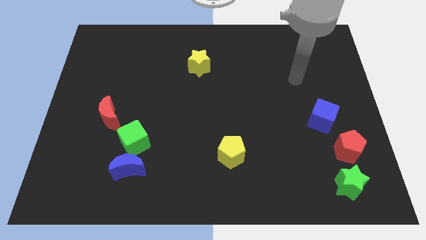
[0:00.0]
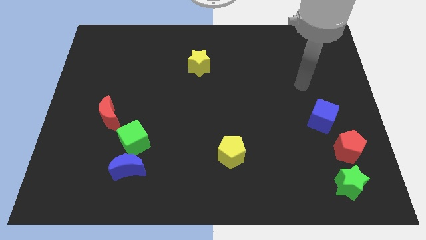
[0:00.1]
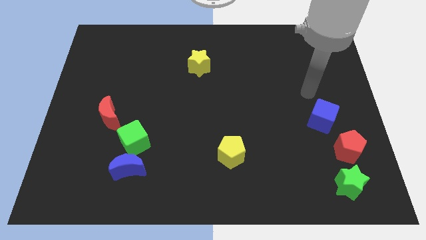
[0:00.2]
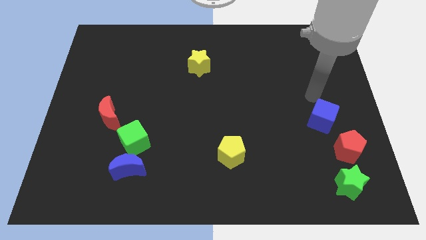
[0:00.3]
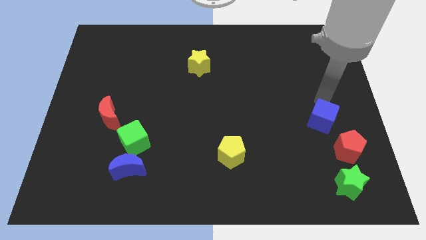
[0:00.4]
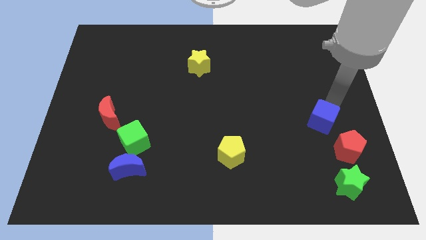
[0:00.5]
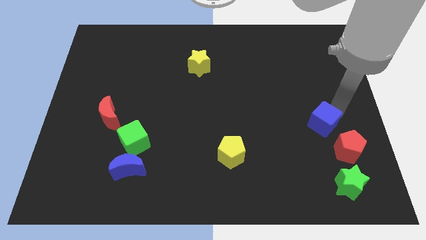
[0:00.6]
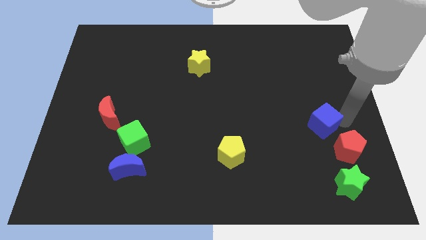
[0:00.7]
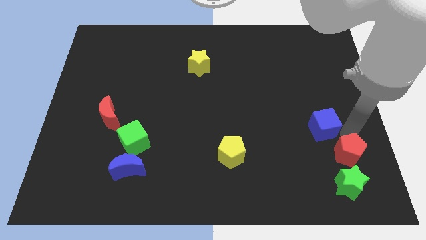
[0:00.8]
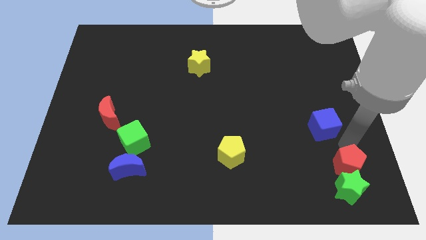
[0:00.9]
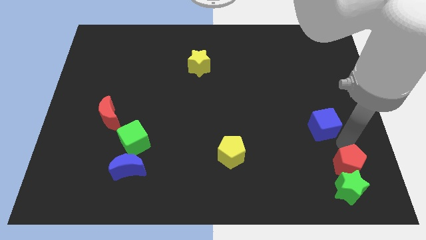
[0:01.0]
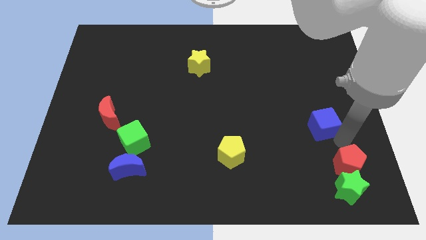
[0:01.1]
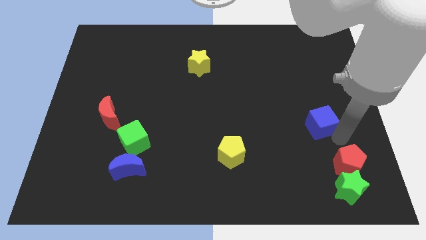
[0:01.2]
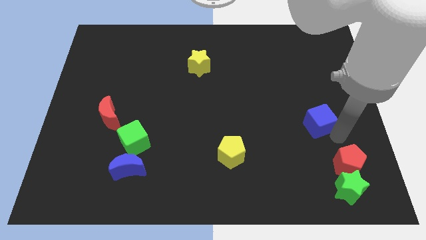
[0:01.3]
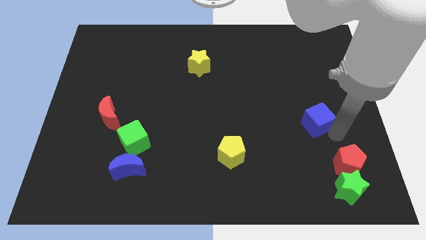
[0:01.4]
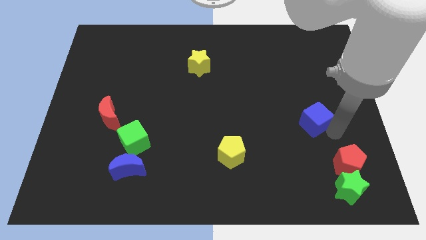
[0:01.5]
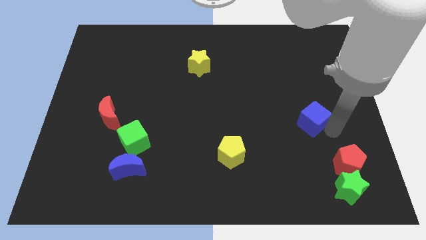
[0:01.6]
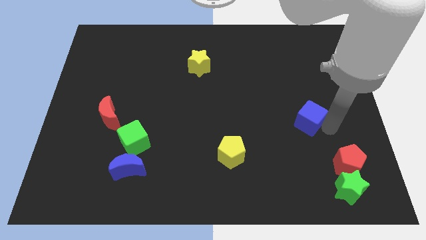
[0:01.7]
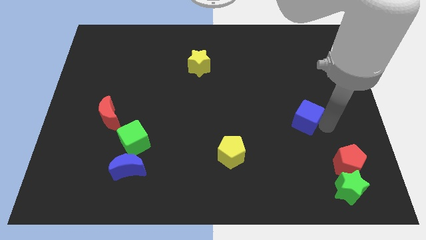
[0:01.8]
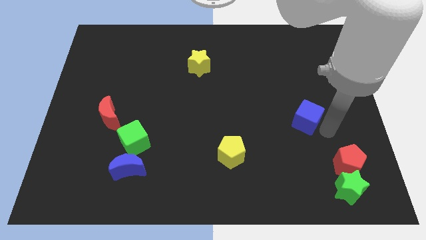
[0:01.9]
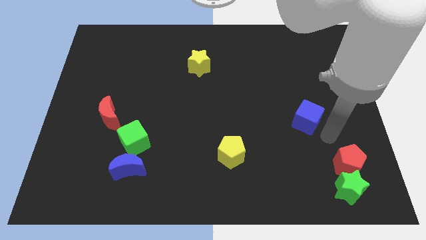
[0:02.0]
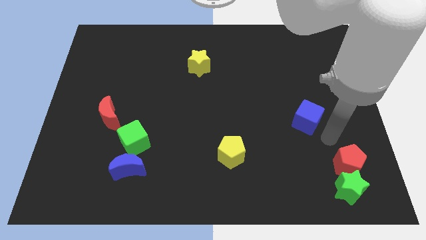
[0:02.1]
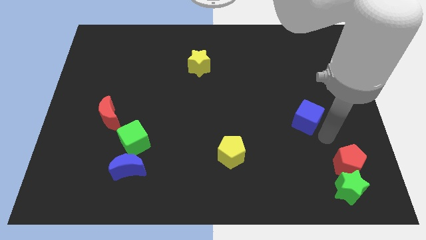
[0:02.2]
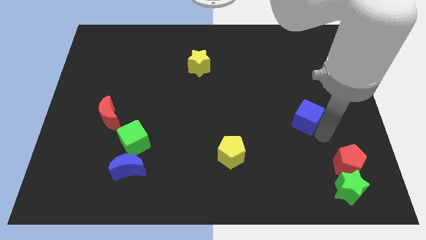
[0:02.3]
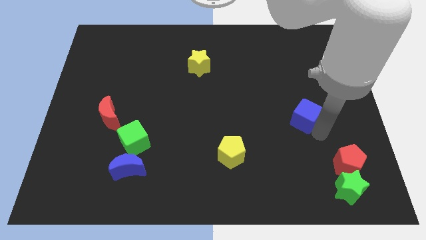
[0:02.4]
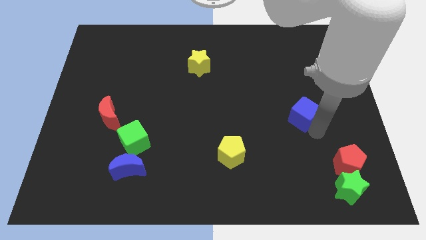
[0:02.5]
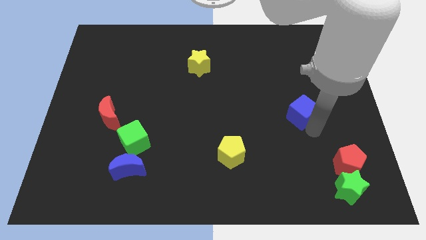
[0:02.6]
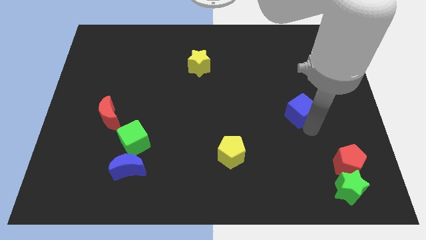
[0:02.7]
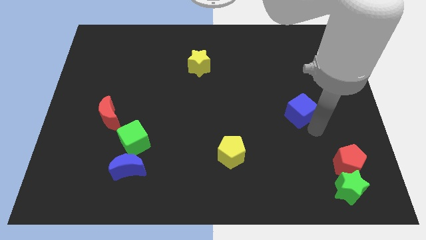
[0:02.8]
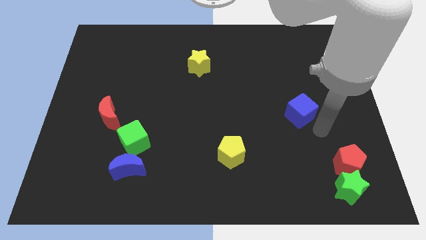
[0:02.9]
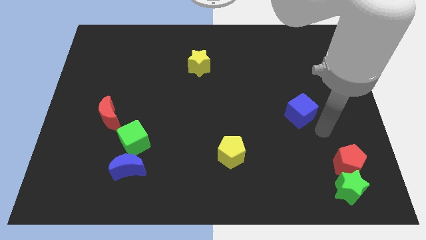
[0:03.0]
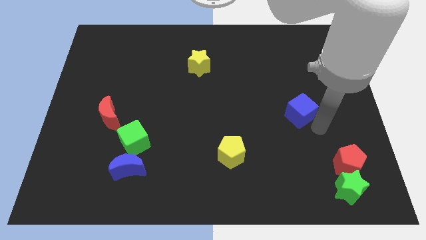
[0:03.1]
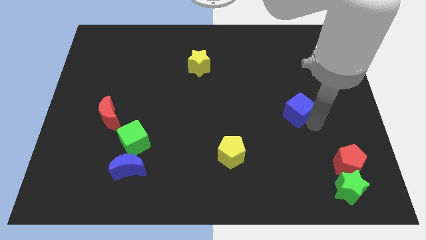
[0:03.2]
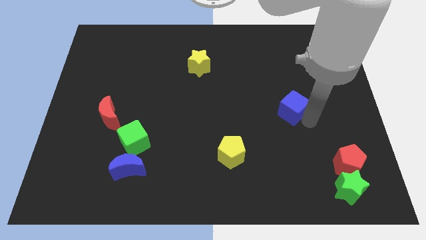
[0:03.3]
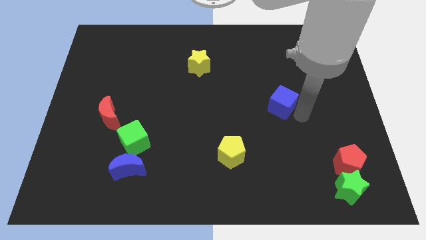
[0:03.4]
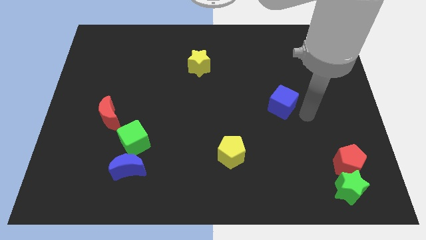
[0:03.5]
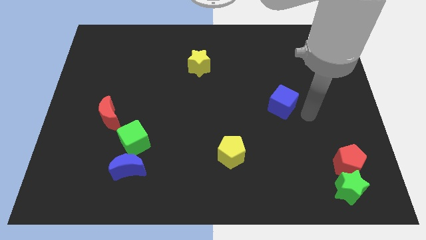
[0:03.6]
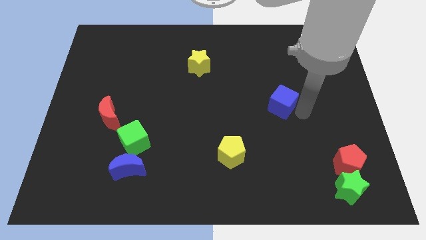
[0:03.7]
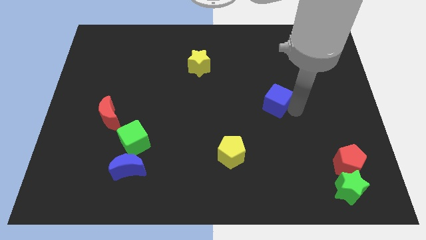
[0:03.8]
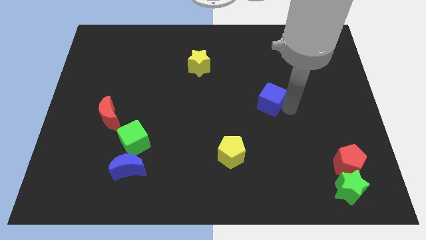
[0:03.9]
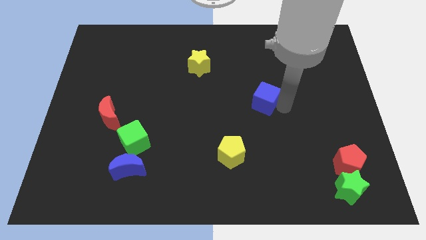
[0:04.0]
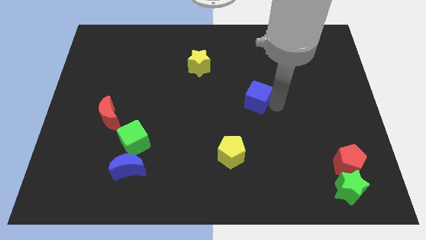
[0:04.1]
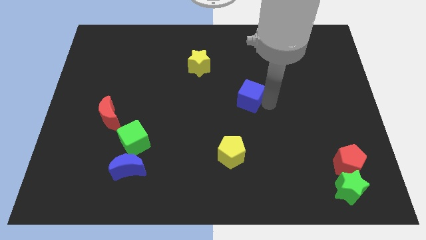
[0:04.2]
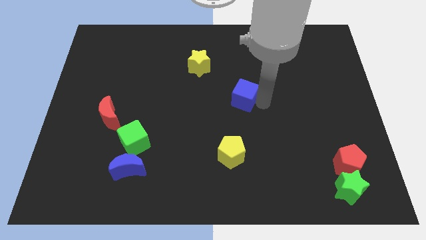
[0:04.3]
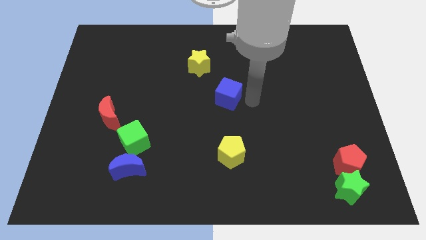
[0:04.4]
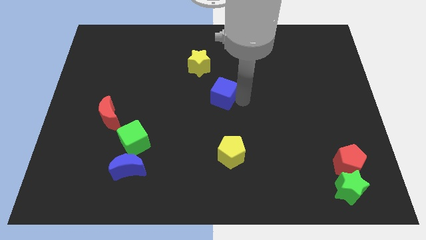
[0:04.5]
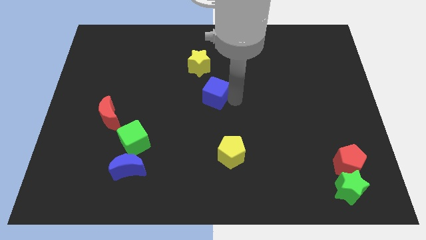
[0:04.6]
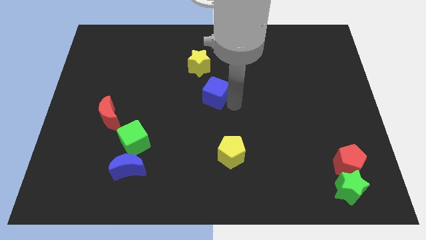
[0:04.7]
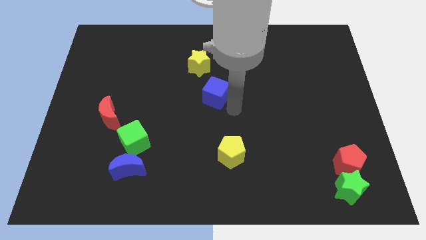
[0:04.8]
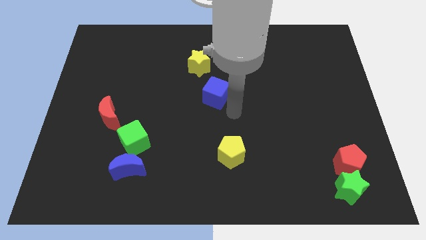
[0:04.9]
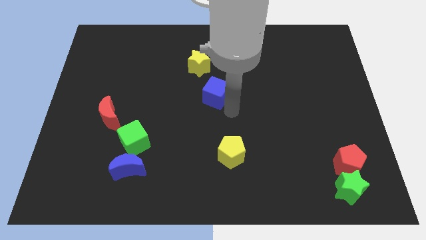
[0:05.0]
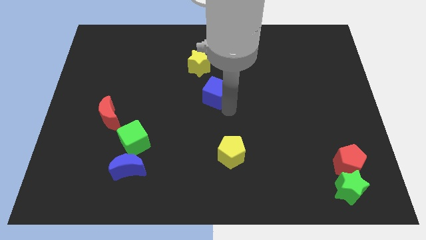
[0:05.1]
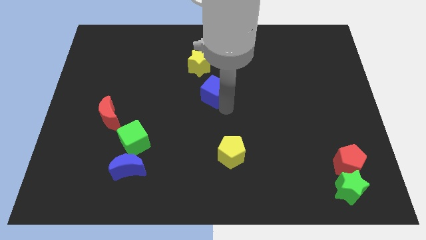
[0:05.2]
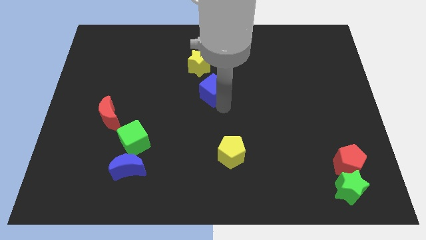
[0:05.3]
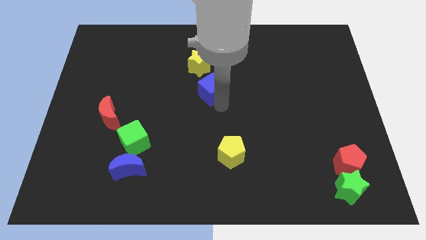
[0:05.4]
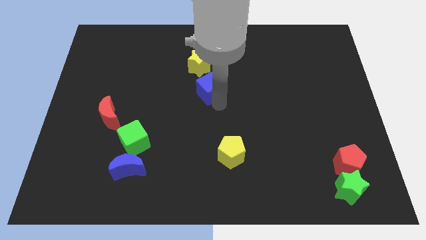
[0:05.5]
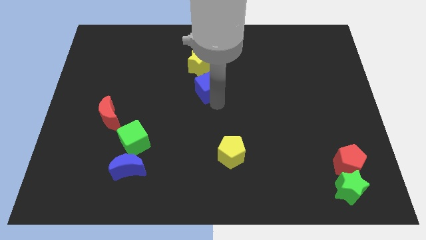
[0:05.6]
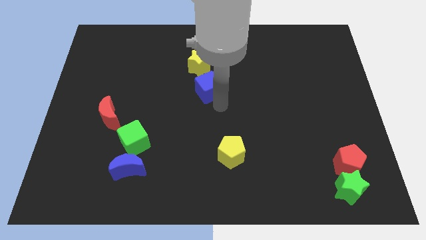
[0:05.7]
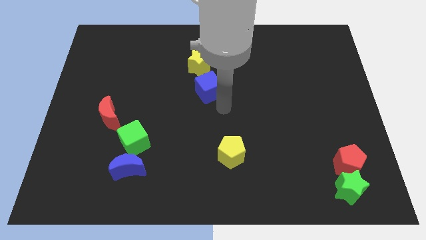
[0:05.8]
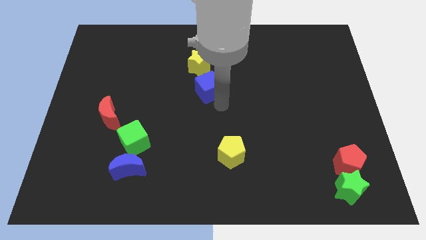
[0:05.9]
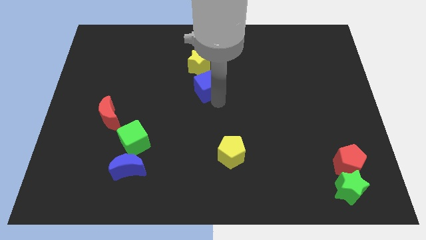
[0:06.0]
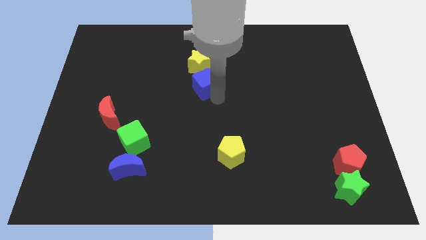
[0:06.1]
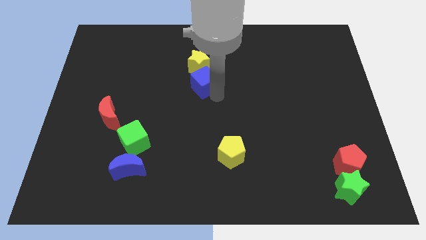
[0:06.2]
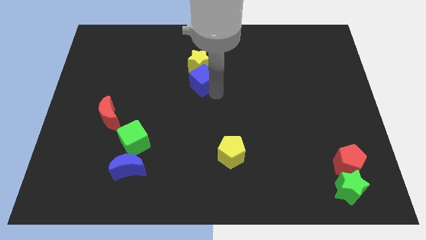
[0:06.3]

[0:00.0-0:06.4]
push the blue cube diagonally down and to the left of the yellow star

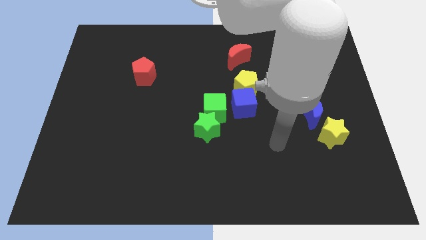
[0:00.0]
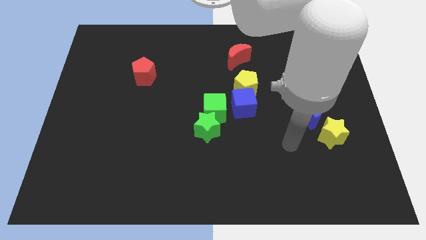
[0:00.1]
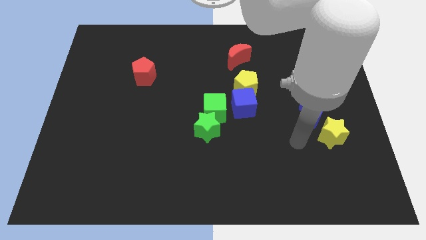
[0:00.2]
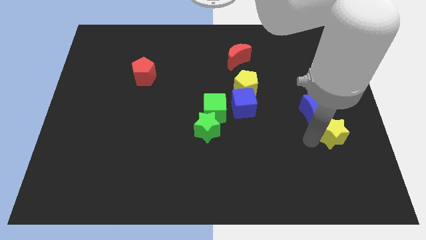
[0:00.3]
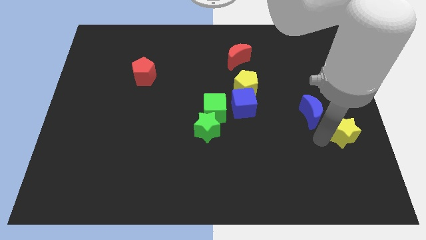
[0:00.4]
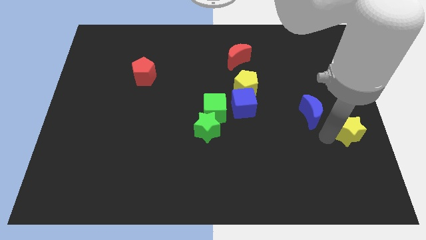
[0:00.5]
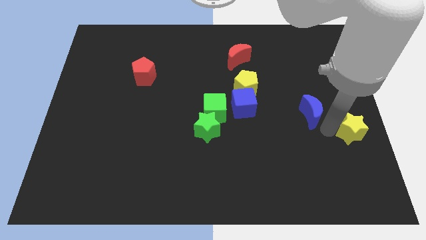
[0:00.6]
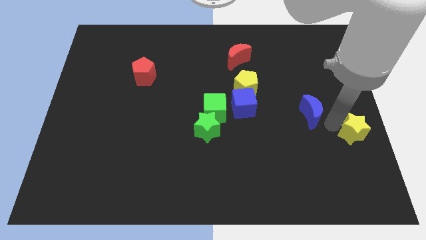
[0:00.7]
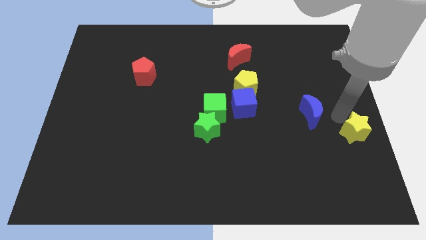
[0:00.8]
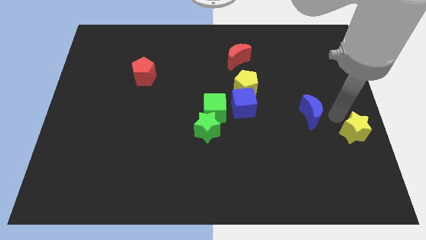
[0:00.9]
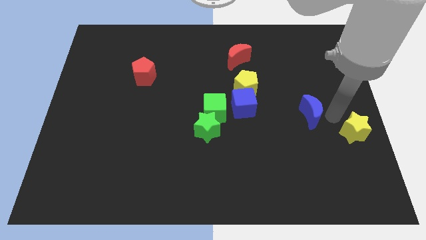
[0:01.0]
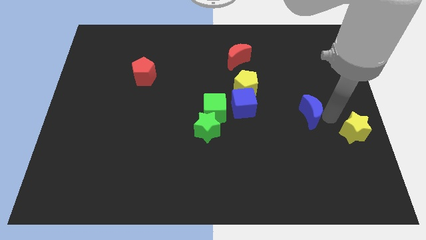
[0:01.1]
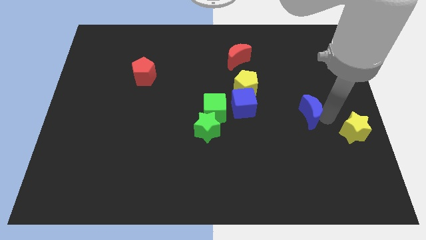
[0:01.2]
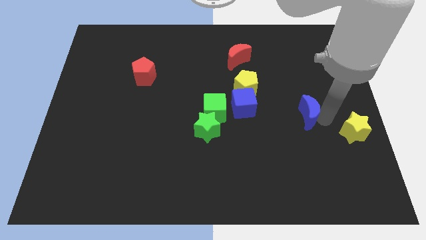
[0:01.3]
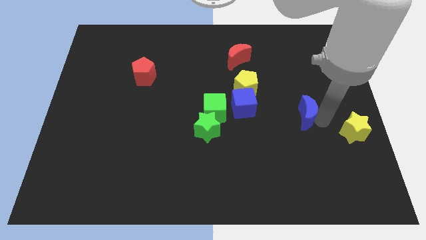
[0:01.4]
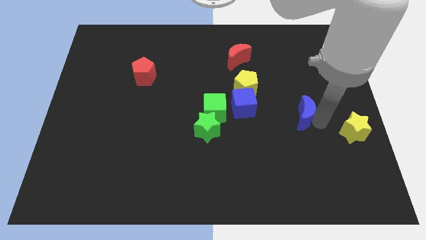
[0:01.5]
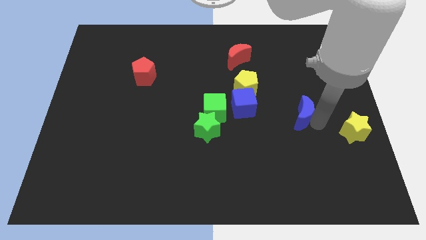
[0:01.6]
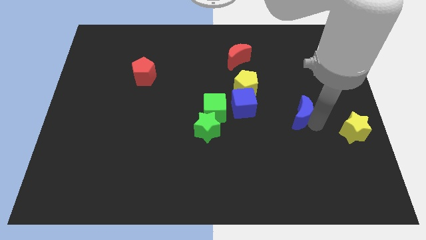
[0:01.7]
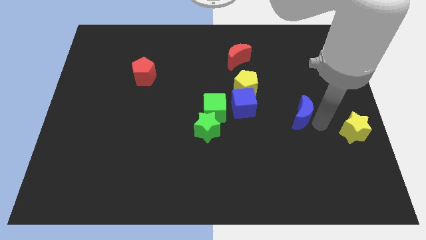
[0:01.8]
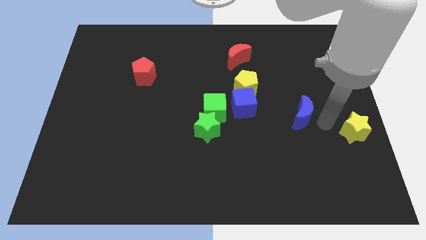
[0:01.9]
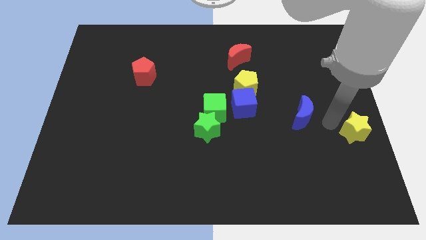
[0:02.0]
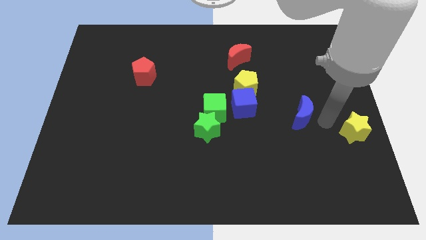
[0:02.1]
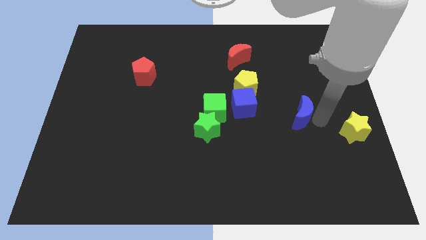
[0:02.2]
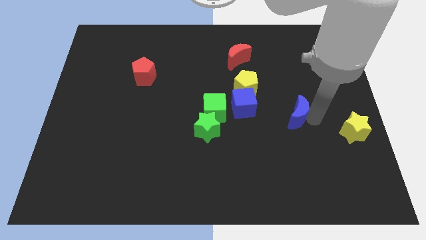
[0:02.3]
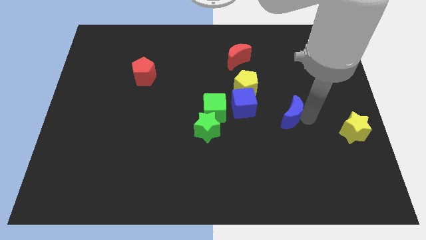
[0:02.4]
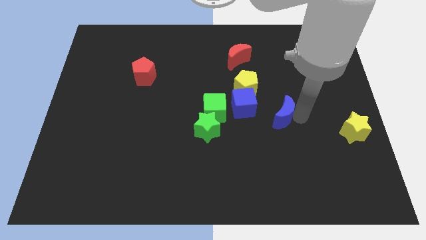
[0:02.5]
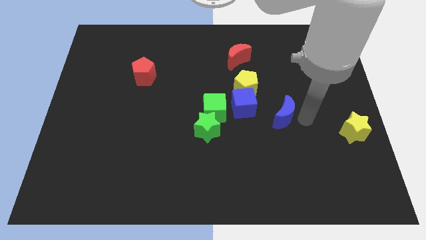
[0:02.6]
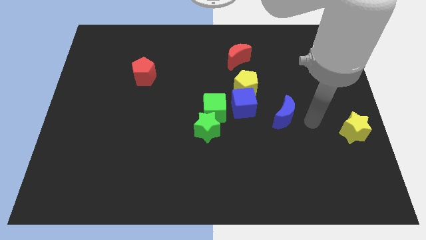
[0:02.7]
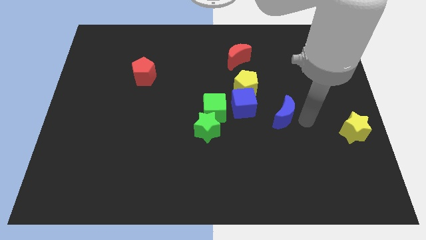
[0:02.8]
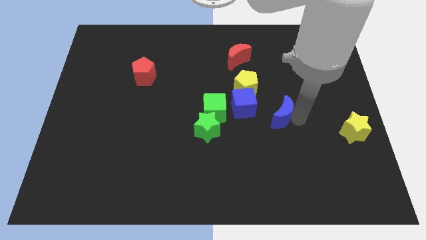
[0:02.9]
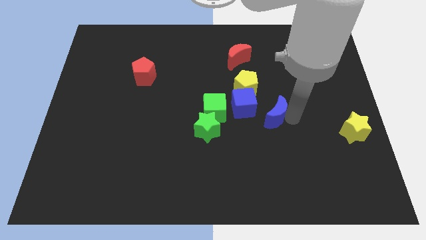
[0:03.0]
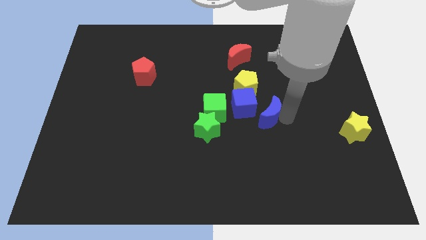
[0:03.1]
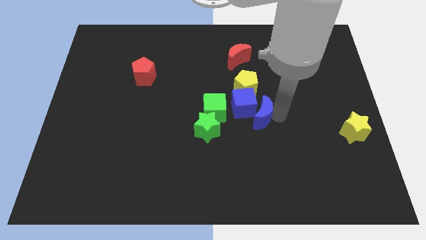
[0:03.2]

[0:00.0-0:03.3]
put the blue moon to the bottom side of the yellow pentagon
